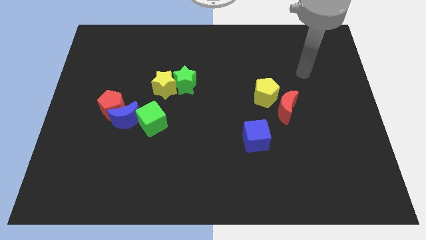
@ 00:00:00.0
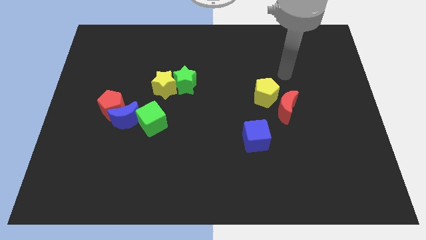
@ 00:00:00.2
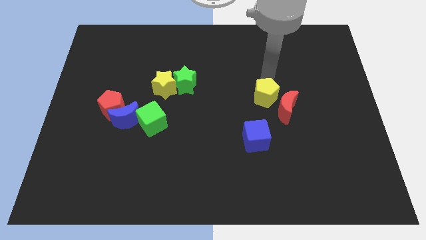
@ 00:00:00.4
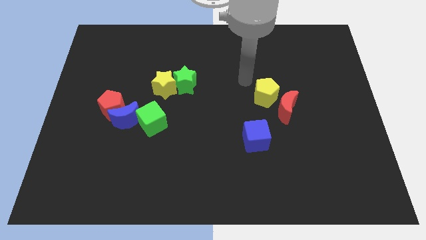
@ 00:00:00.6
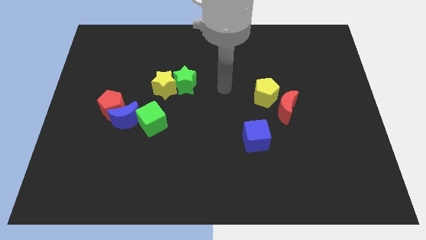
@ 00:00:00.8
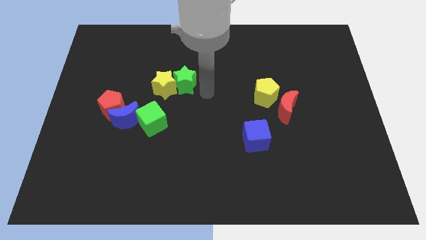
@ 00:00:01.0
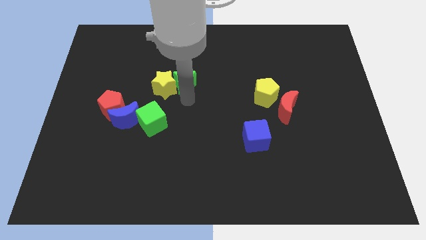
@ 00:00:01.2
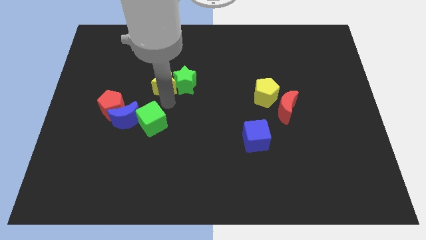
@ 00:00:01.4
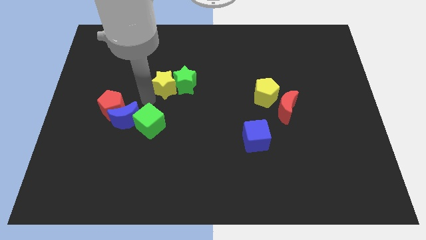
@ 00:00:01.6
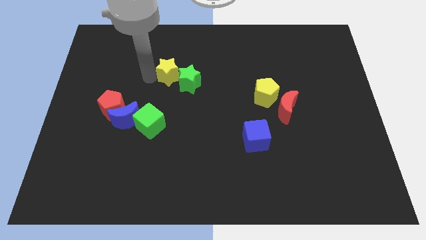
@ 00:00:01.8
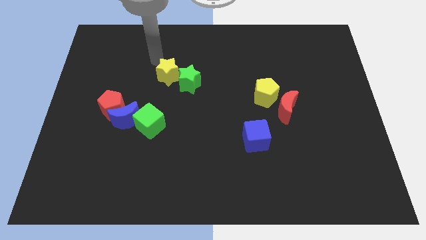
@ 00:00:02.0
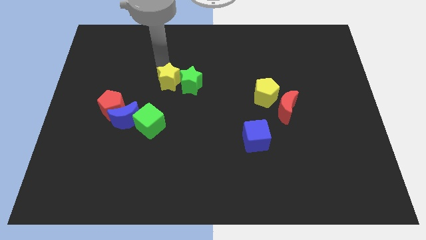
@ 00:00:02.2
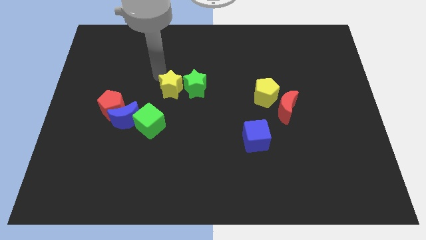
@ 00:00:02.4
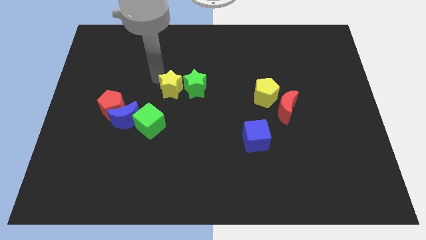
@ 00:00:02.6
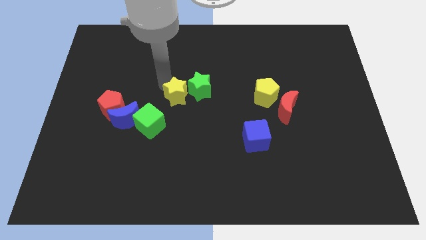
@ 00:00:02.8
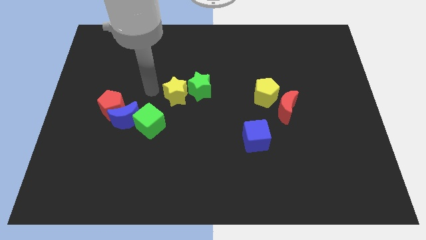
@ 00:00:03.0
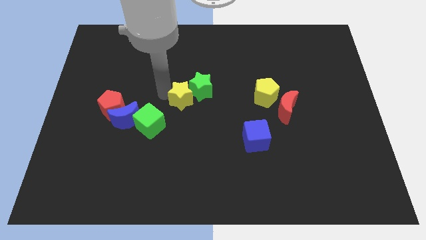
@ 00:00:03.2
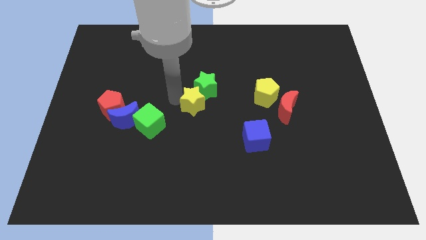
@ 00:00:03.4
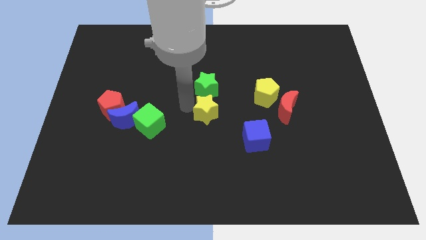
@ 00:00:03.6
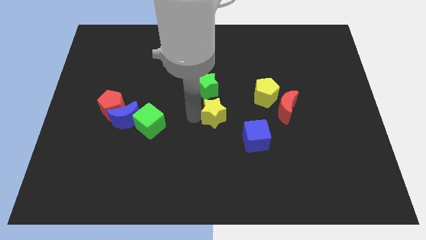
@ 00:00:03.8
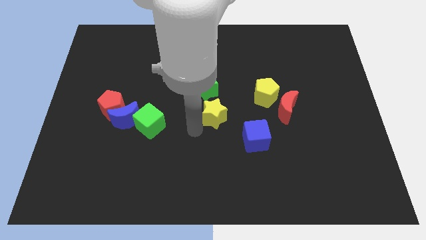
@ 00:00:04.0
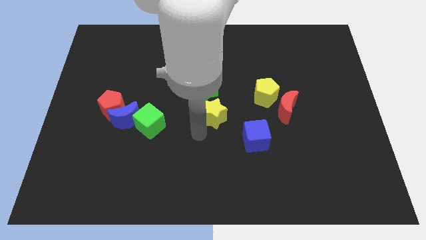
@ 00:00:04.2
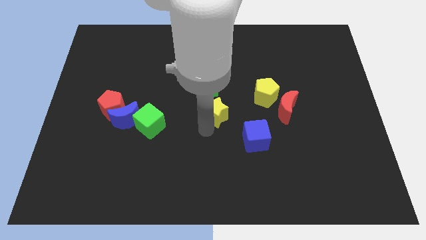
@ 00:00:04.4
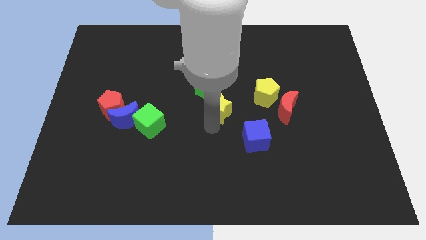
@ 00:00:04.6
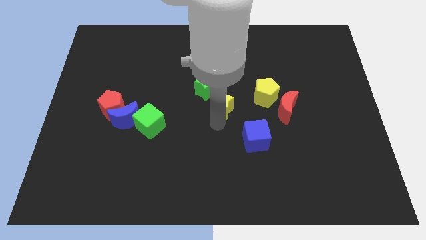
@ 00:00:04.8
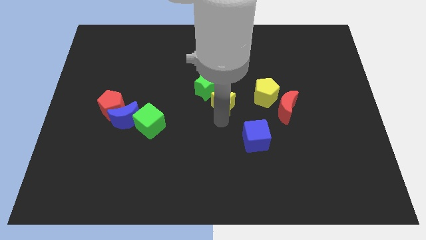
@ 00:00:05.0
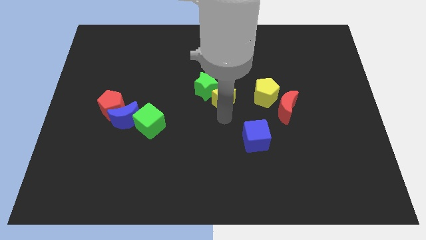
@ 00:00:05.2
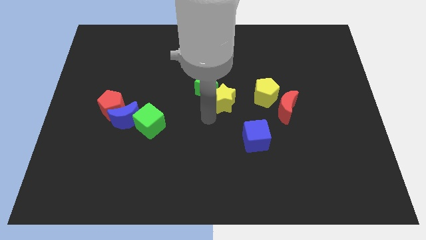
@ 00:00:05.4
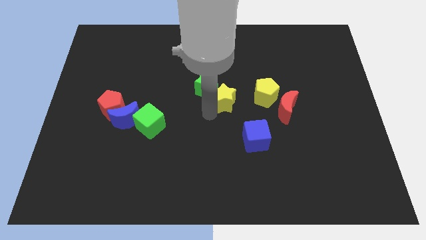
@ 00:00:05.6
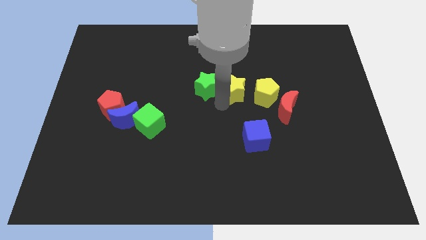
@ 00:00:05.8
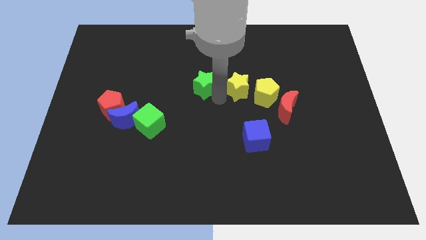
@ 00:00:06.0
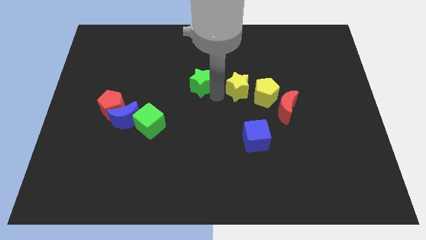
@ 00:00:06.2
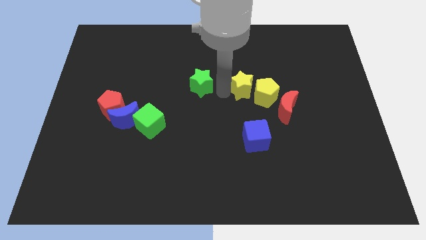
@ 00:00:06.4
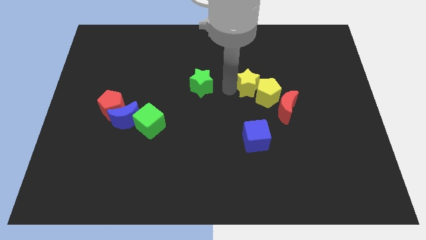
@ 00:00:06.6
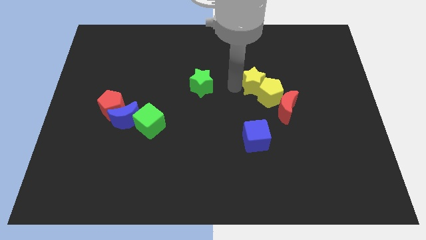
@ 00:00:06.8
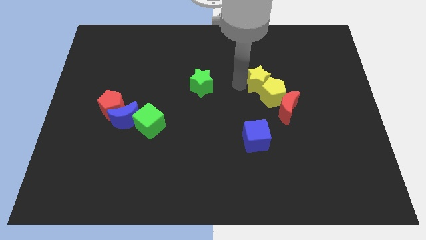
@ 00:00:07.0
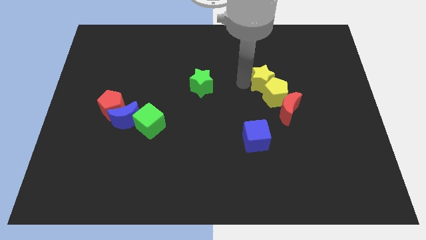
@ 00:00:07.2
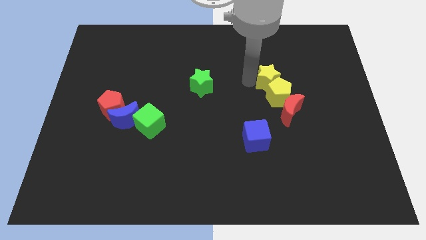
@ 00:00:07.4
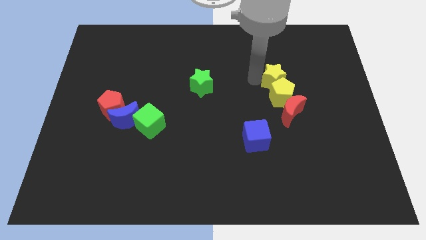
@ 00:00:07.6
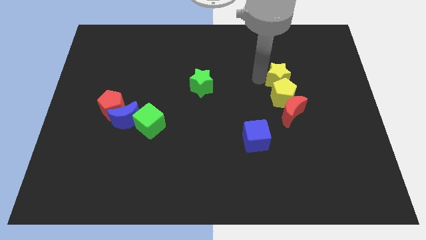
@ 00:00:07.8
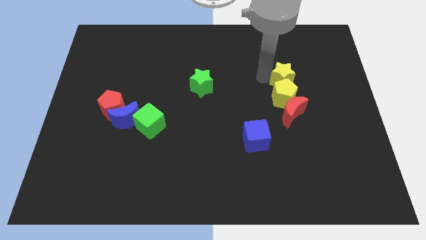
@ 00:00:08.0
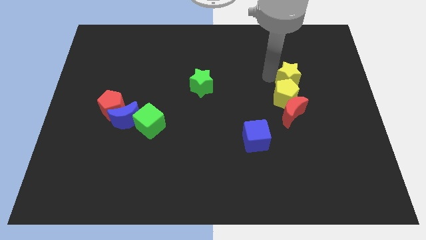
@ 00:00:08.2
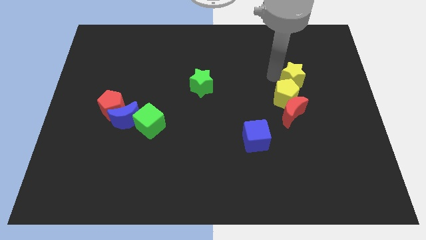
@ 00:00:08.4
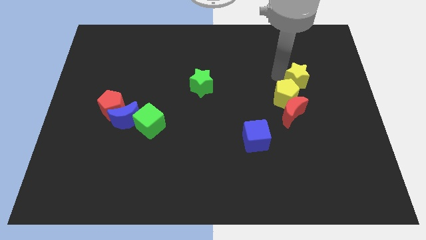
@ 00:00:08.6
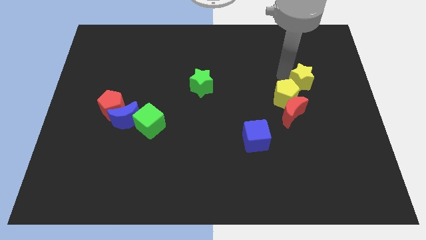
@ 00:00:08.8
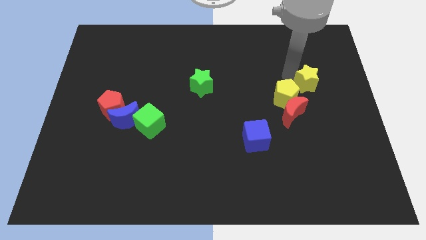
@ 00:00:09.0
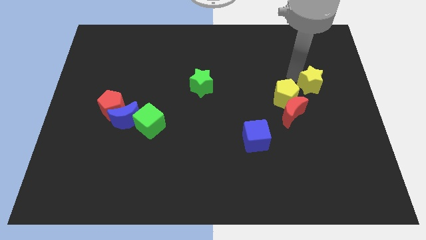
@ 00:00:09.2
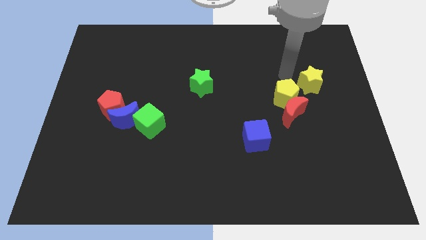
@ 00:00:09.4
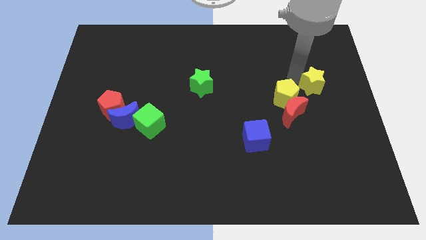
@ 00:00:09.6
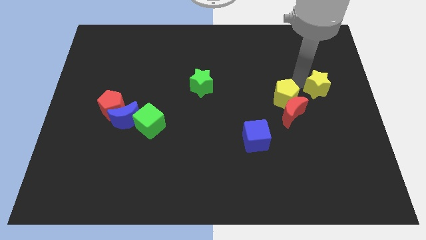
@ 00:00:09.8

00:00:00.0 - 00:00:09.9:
put the yellow star to the center right
